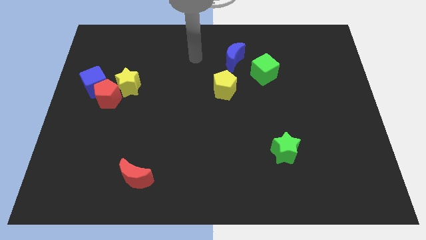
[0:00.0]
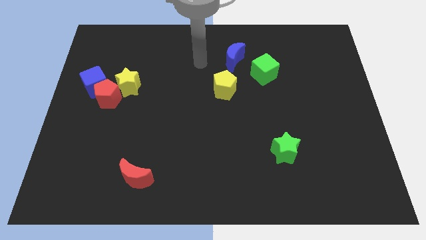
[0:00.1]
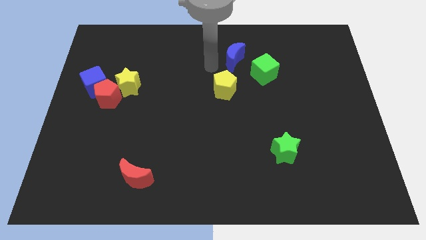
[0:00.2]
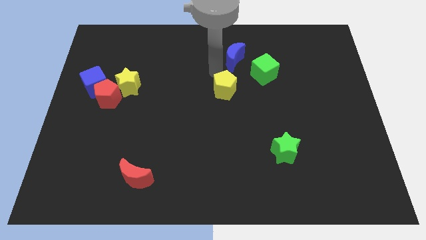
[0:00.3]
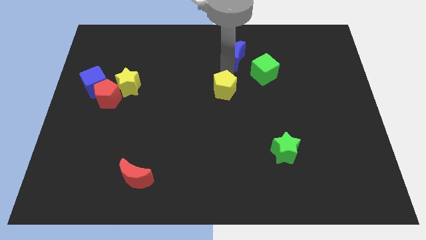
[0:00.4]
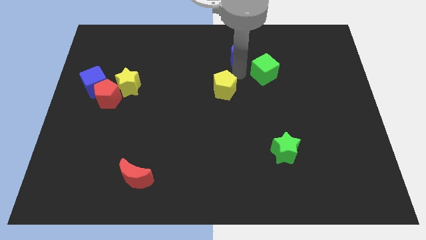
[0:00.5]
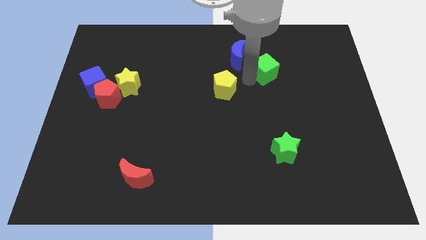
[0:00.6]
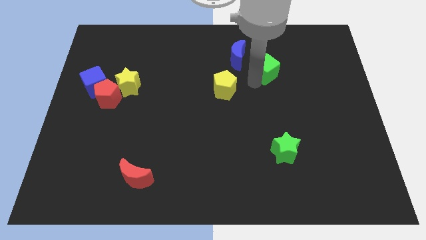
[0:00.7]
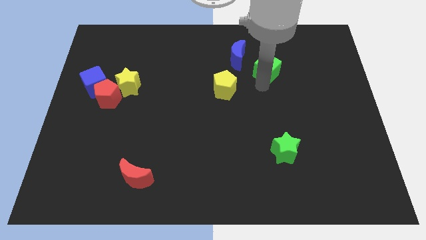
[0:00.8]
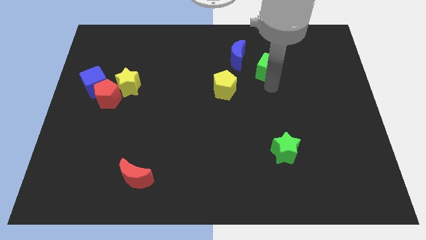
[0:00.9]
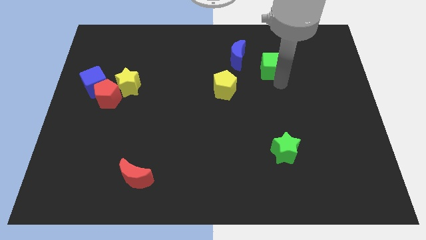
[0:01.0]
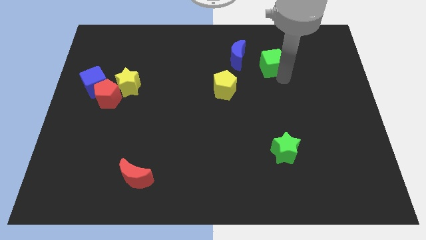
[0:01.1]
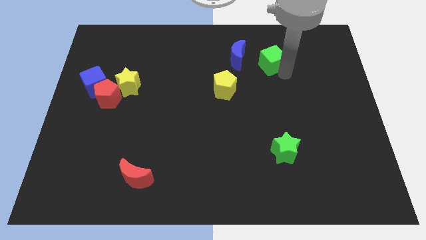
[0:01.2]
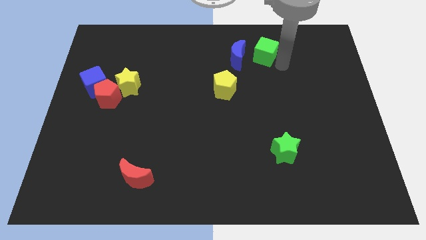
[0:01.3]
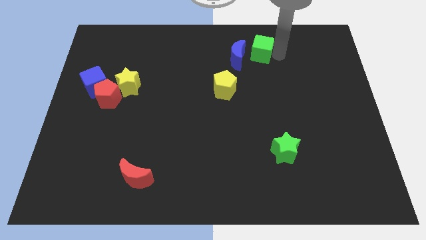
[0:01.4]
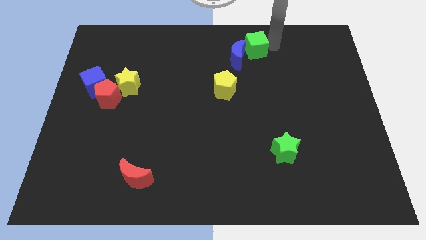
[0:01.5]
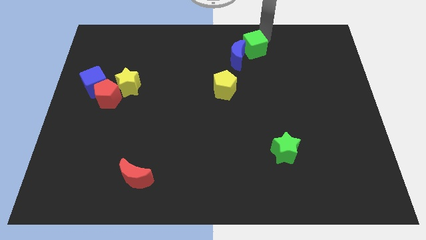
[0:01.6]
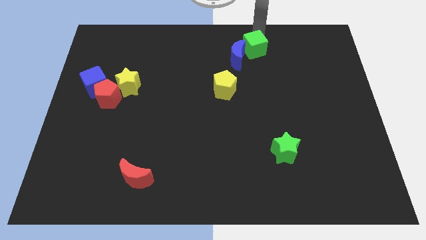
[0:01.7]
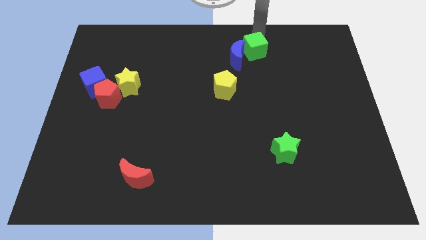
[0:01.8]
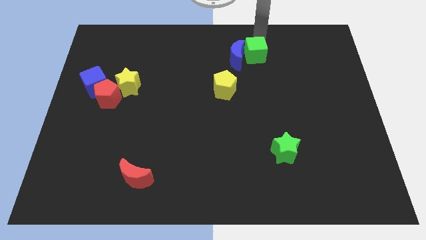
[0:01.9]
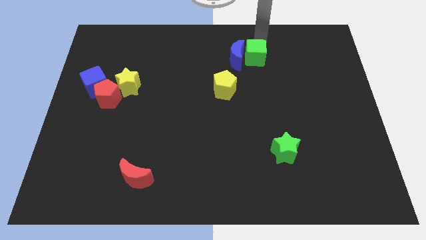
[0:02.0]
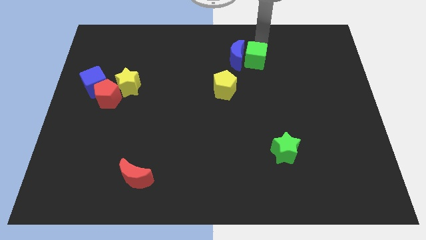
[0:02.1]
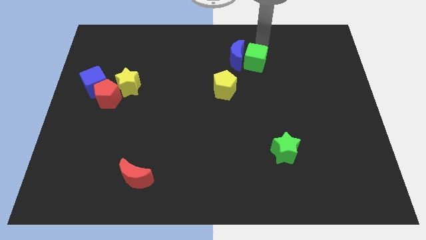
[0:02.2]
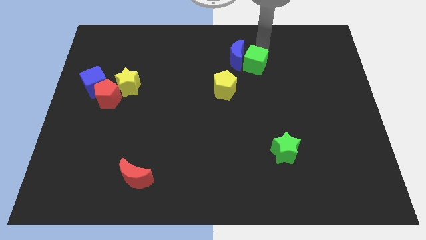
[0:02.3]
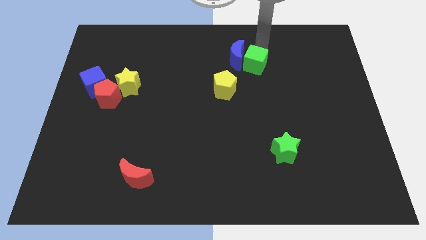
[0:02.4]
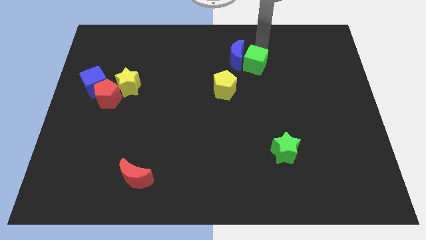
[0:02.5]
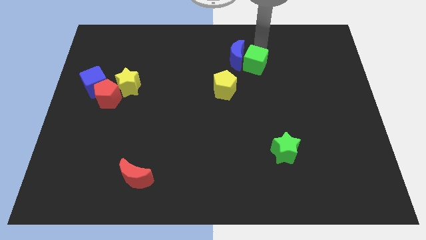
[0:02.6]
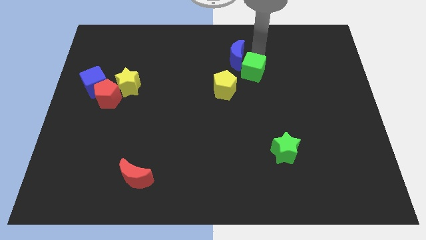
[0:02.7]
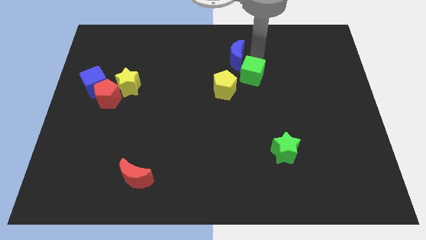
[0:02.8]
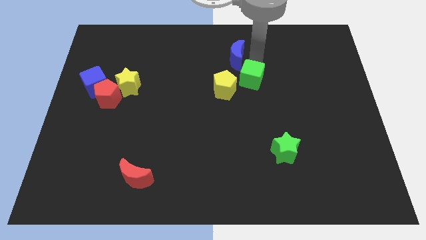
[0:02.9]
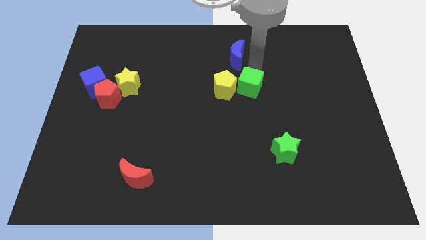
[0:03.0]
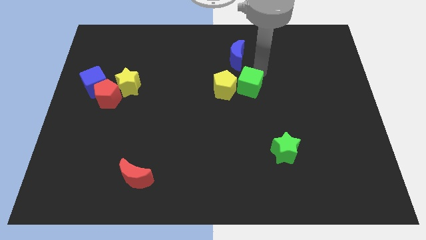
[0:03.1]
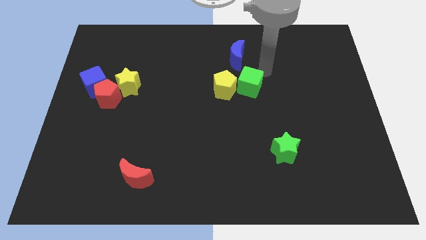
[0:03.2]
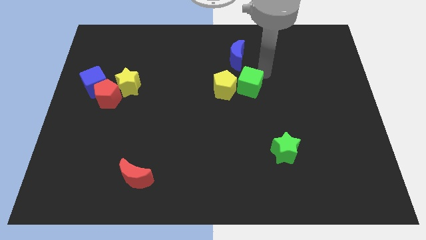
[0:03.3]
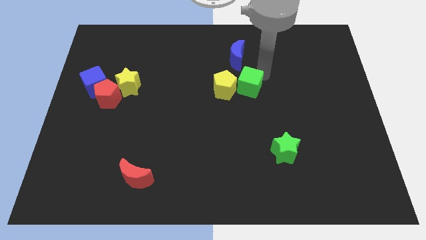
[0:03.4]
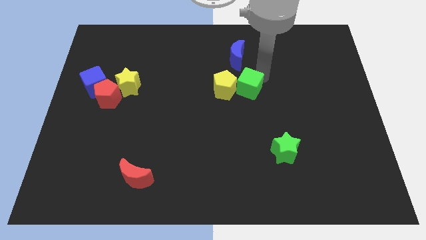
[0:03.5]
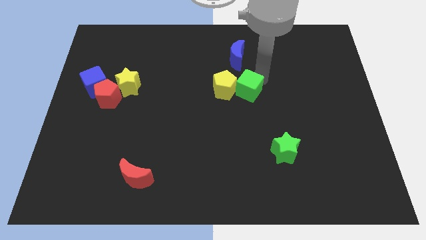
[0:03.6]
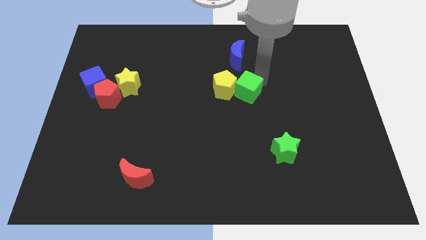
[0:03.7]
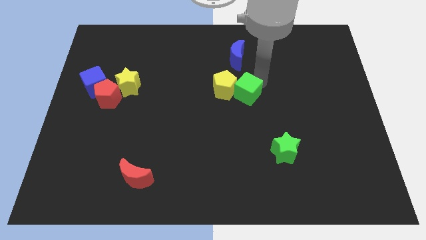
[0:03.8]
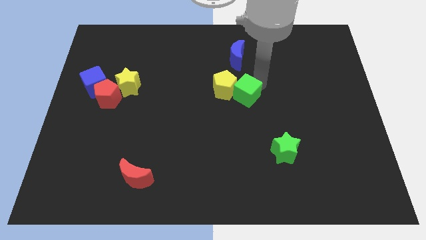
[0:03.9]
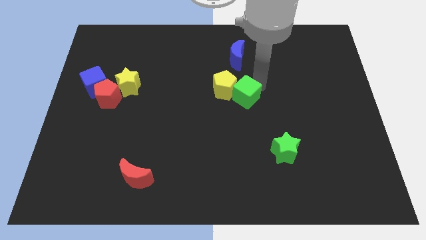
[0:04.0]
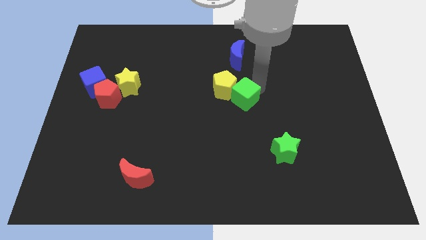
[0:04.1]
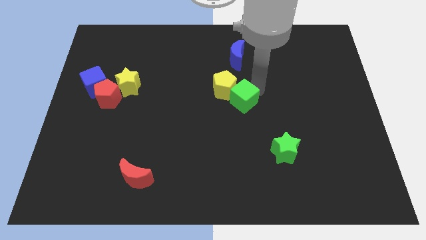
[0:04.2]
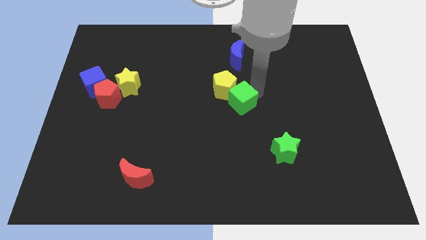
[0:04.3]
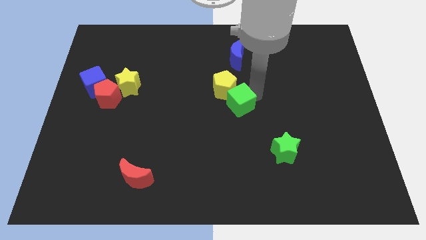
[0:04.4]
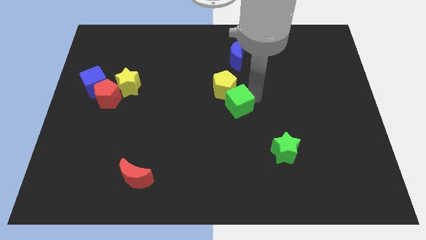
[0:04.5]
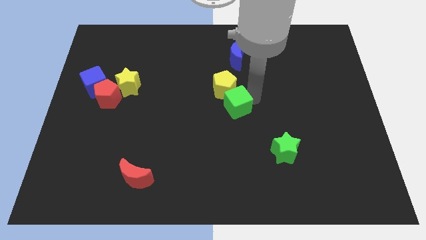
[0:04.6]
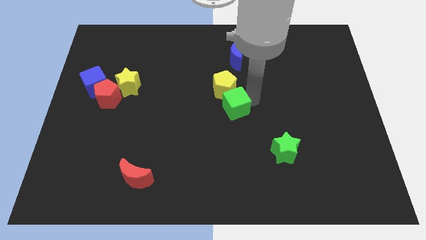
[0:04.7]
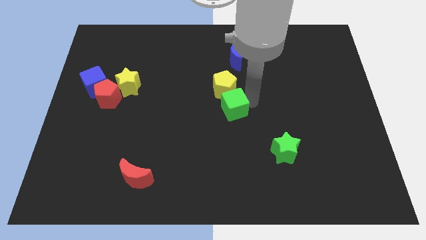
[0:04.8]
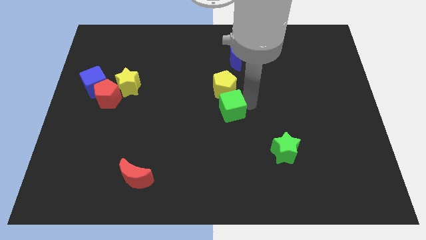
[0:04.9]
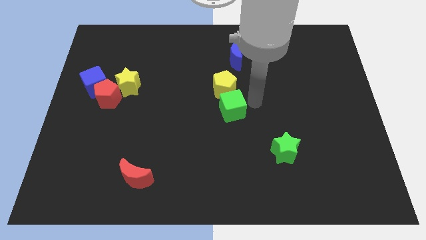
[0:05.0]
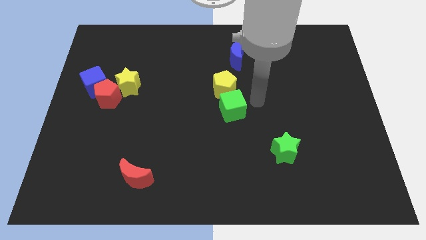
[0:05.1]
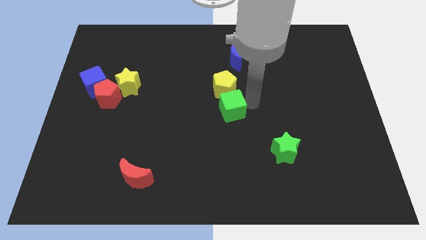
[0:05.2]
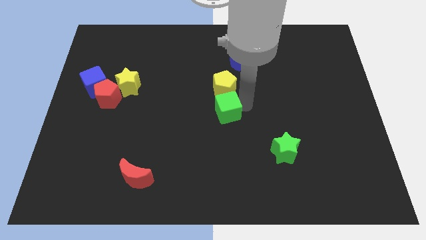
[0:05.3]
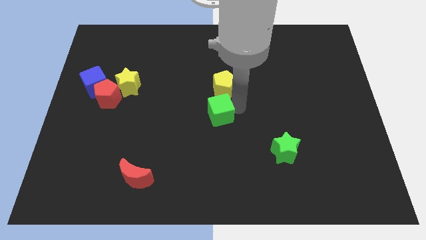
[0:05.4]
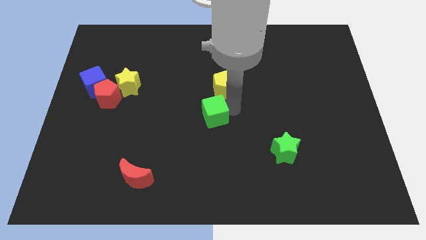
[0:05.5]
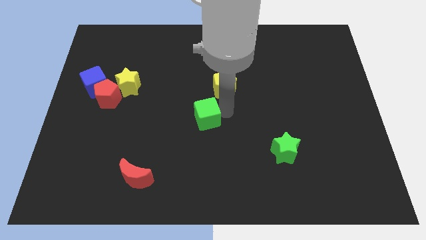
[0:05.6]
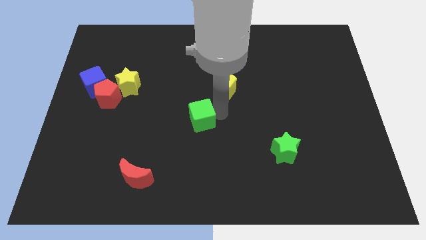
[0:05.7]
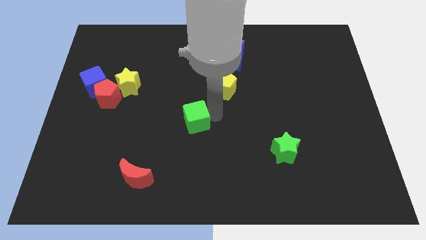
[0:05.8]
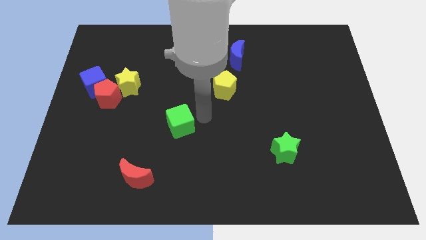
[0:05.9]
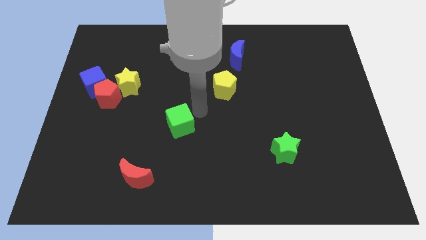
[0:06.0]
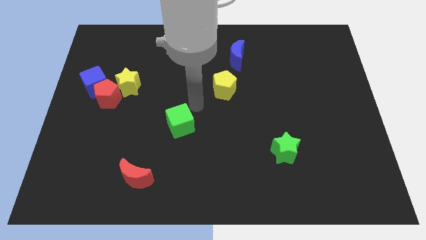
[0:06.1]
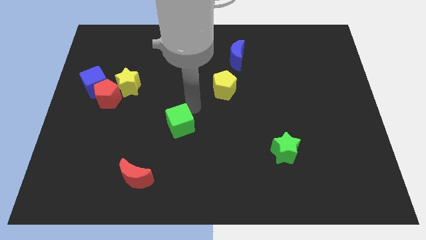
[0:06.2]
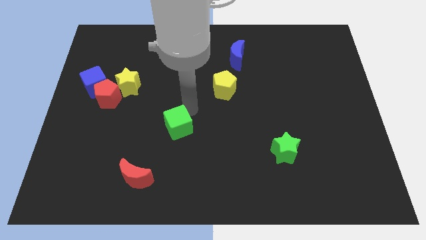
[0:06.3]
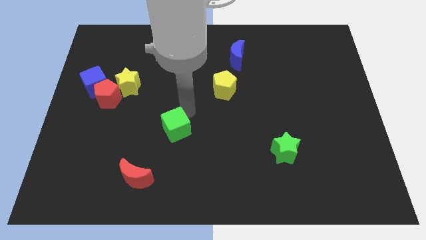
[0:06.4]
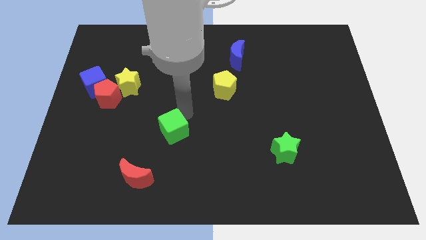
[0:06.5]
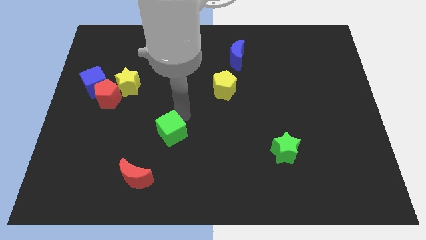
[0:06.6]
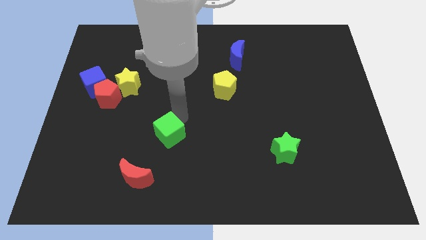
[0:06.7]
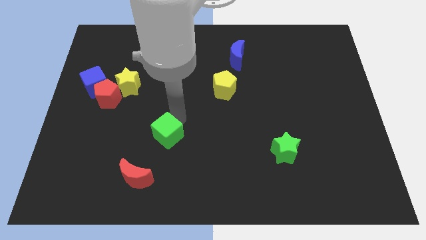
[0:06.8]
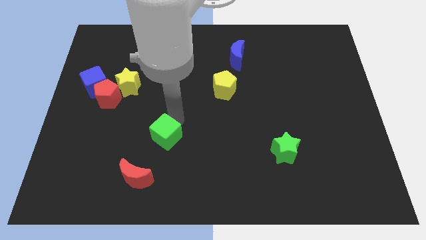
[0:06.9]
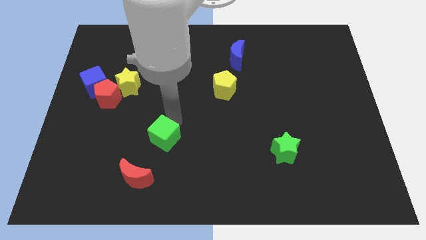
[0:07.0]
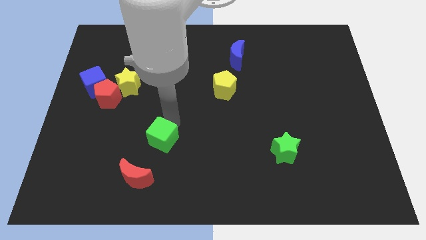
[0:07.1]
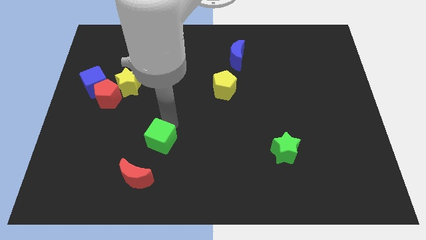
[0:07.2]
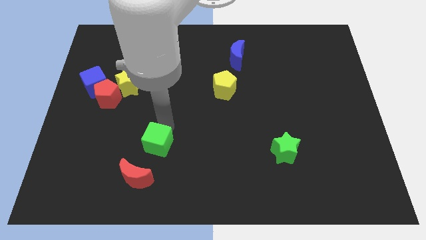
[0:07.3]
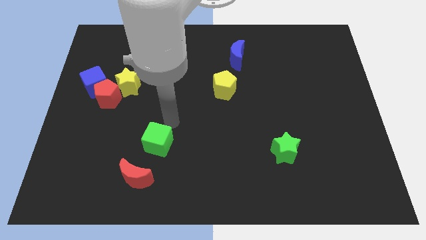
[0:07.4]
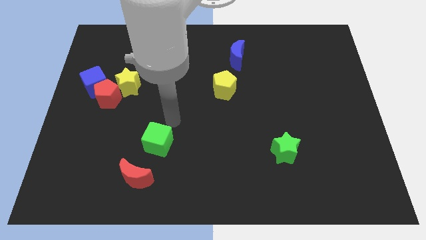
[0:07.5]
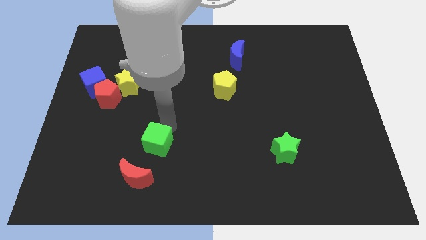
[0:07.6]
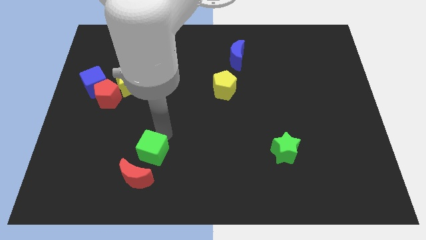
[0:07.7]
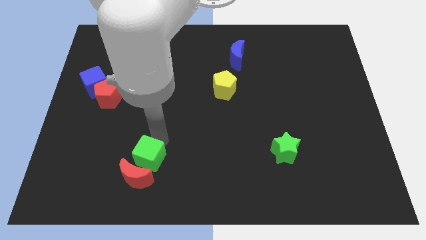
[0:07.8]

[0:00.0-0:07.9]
move the green cube close to the red moon
